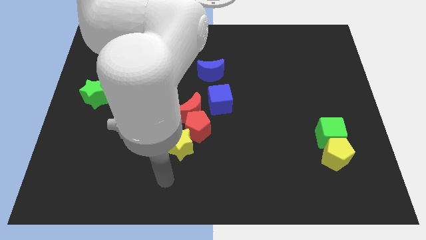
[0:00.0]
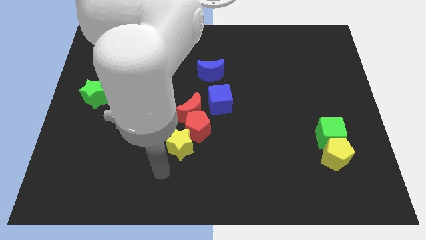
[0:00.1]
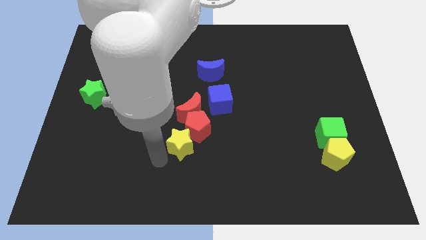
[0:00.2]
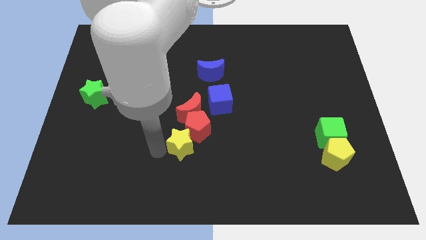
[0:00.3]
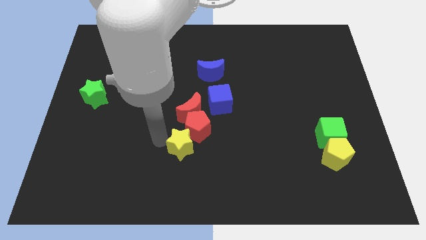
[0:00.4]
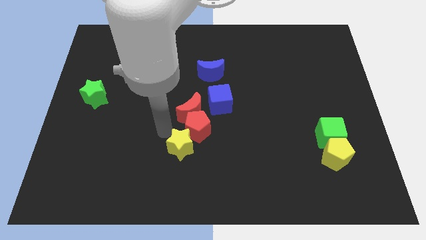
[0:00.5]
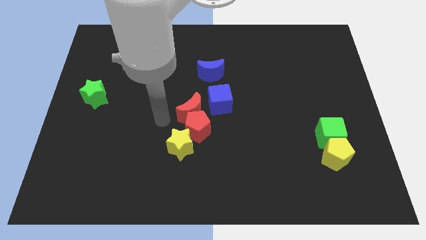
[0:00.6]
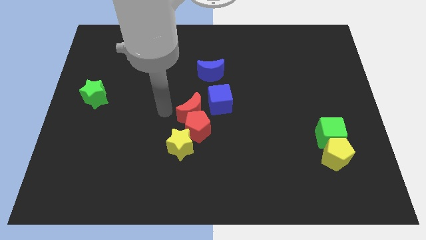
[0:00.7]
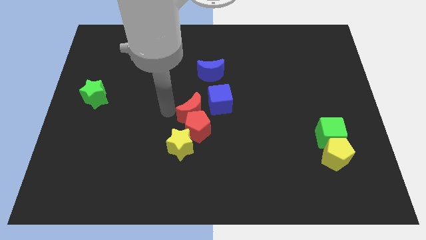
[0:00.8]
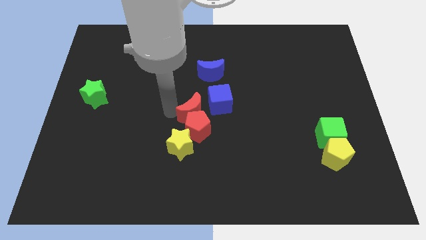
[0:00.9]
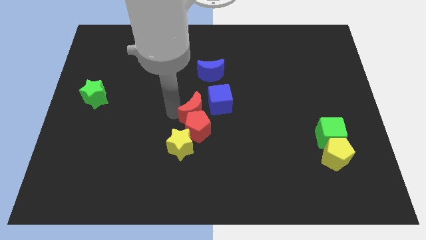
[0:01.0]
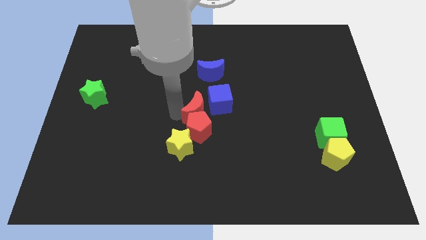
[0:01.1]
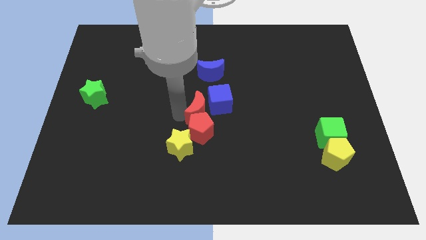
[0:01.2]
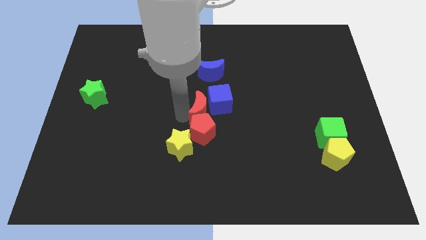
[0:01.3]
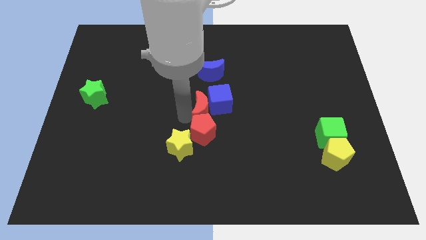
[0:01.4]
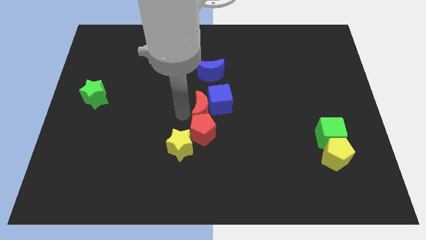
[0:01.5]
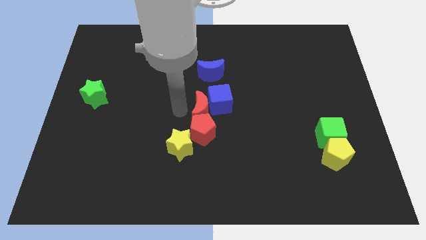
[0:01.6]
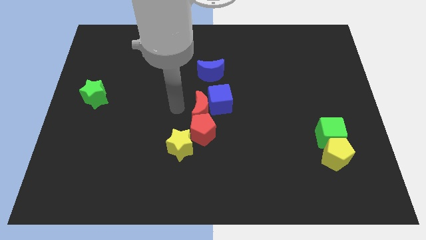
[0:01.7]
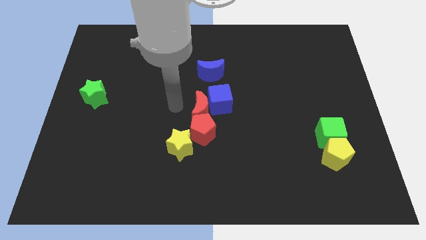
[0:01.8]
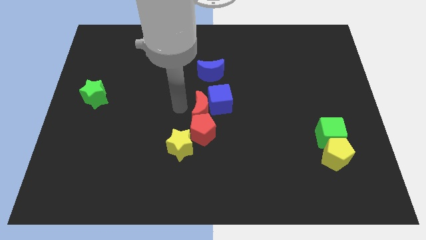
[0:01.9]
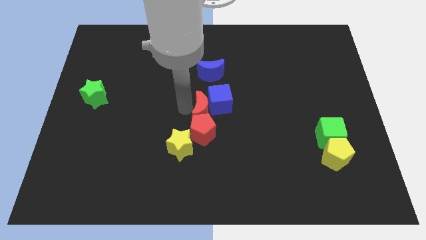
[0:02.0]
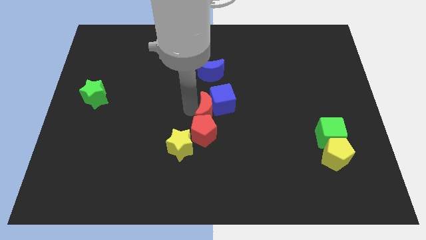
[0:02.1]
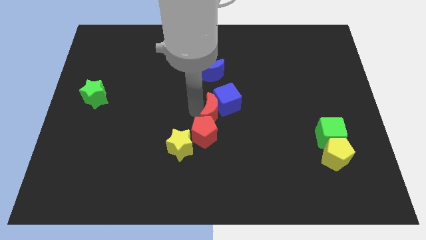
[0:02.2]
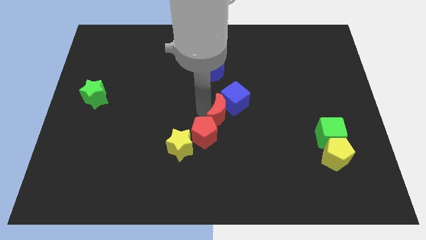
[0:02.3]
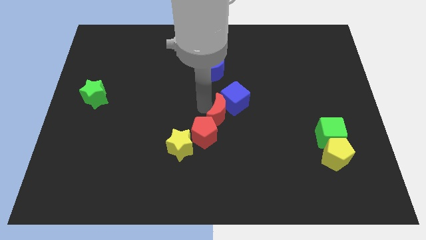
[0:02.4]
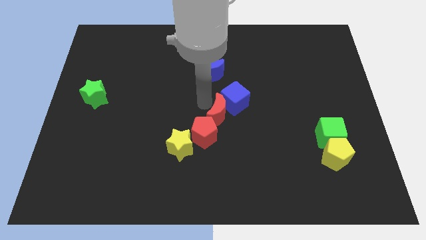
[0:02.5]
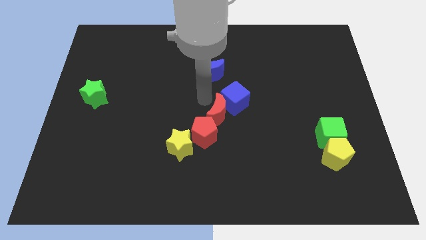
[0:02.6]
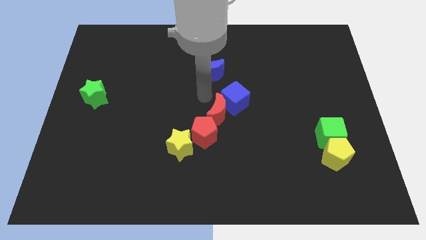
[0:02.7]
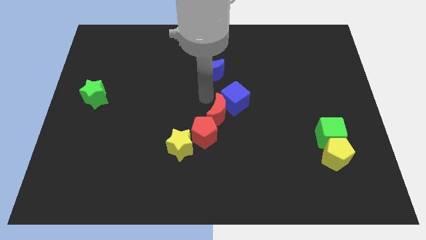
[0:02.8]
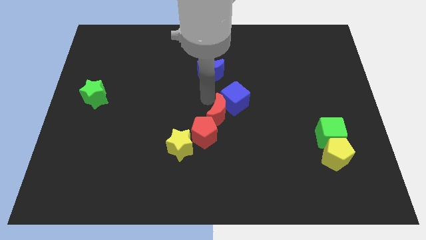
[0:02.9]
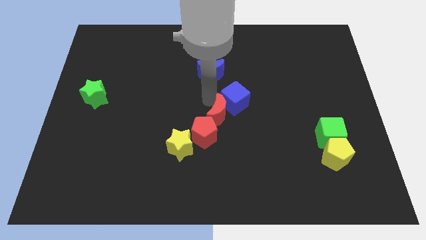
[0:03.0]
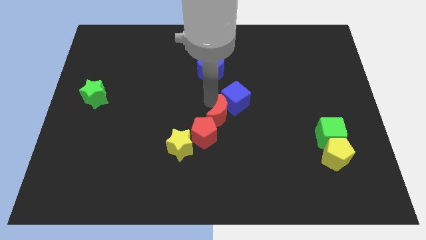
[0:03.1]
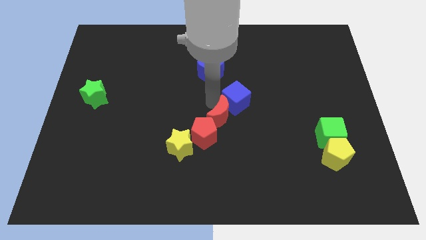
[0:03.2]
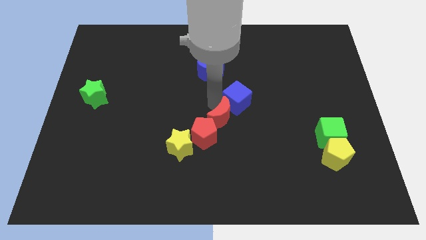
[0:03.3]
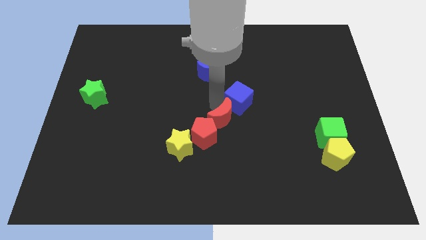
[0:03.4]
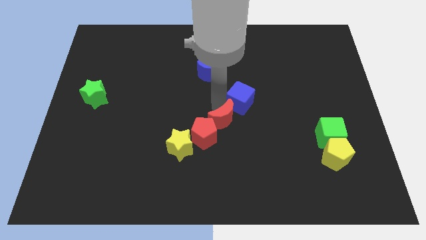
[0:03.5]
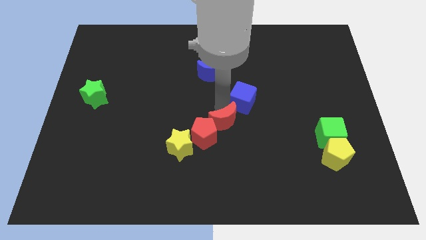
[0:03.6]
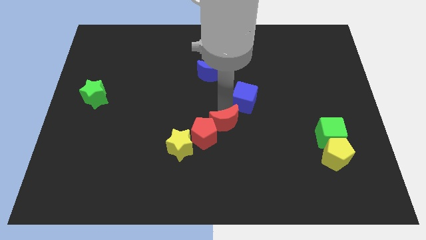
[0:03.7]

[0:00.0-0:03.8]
slide the red moon downwards and to the right diagonally somewhat

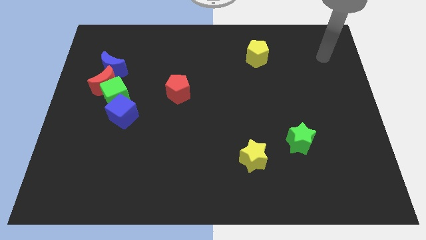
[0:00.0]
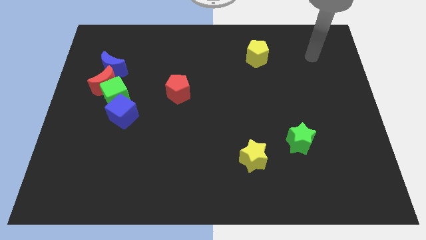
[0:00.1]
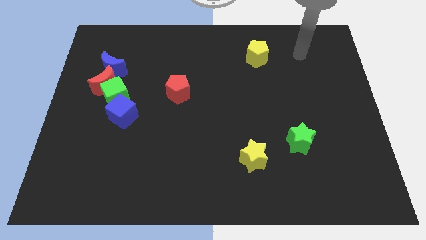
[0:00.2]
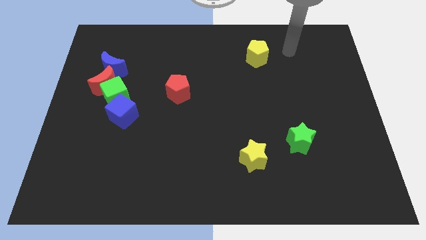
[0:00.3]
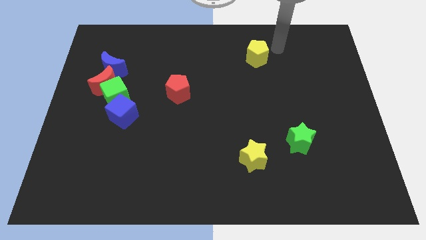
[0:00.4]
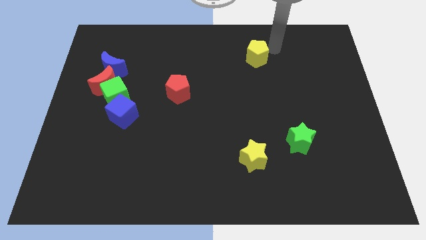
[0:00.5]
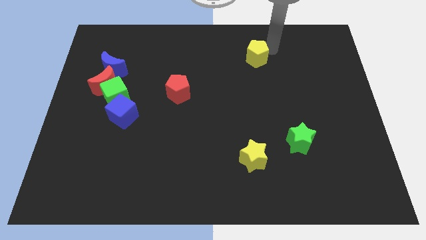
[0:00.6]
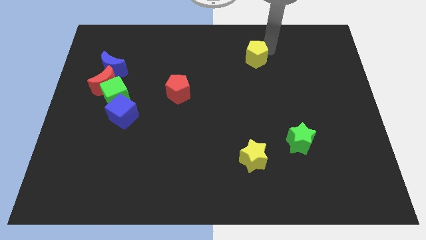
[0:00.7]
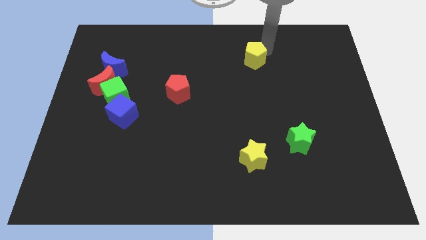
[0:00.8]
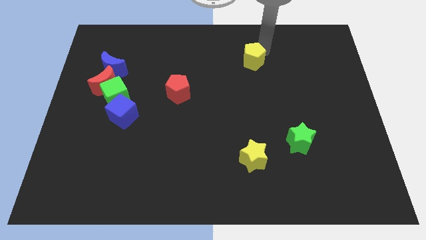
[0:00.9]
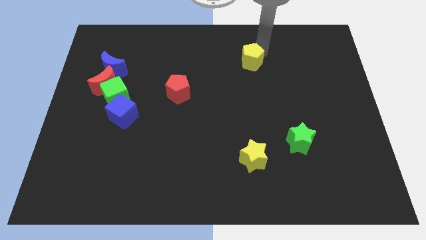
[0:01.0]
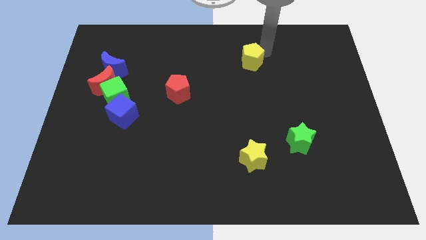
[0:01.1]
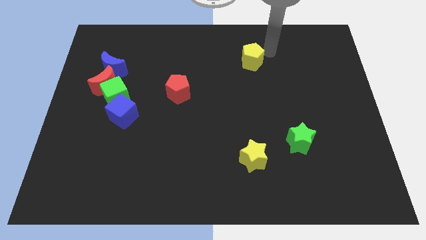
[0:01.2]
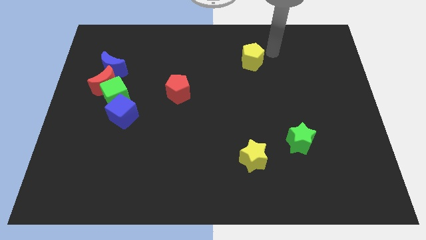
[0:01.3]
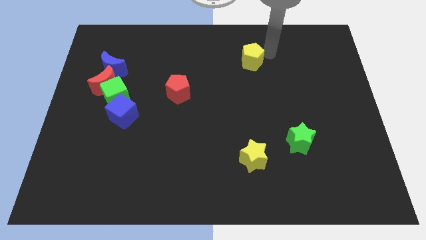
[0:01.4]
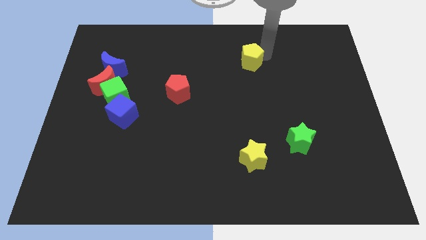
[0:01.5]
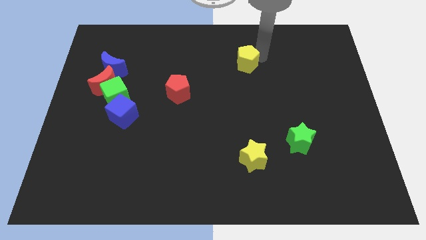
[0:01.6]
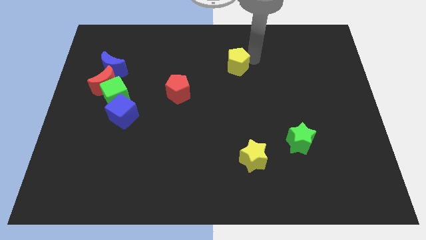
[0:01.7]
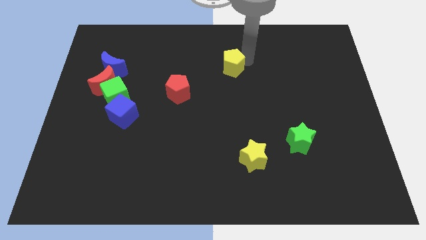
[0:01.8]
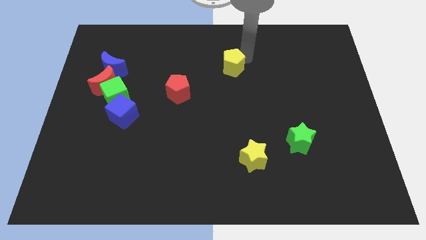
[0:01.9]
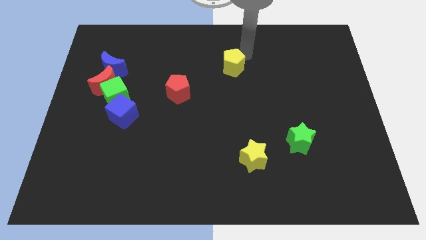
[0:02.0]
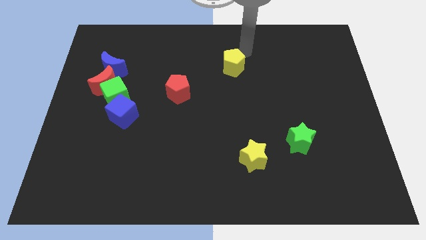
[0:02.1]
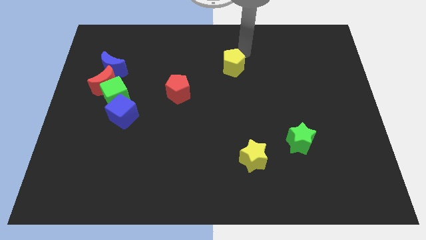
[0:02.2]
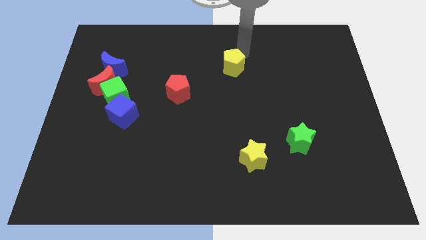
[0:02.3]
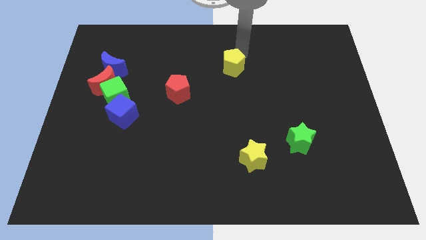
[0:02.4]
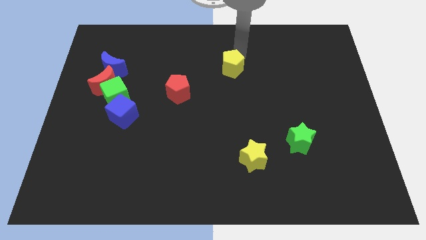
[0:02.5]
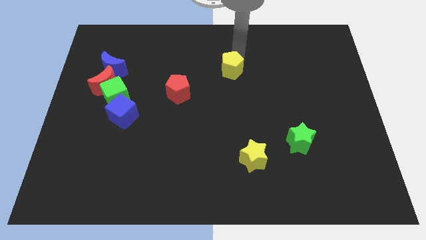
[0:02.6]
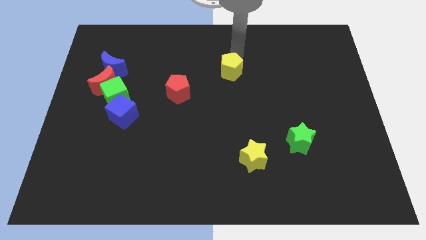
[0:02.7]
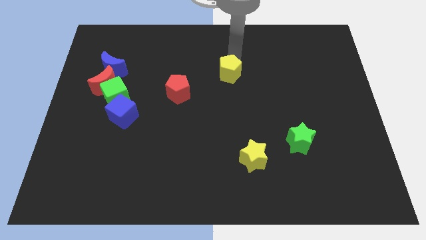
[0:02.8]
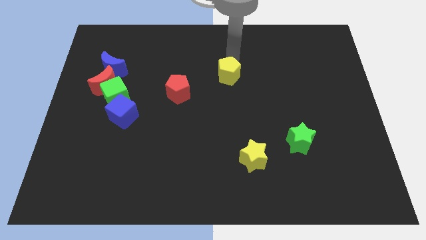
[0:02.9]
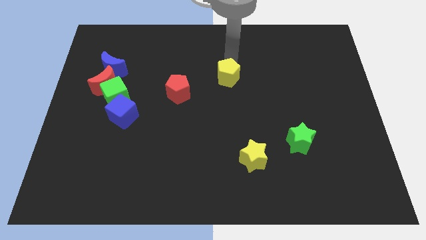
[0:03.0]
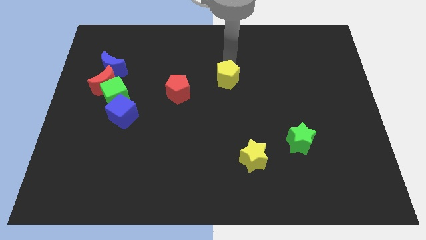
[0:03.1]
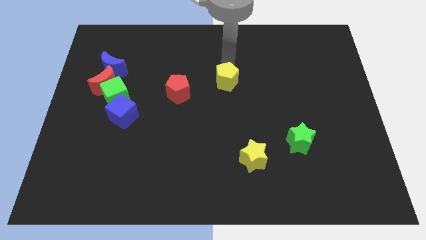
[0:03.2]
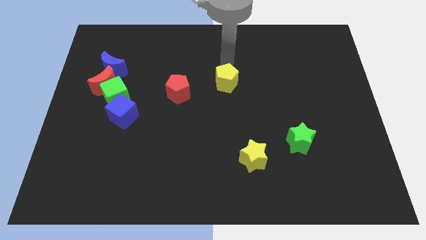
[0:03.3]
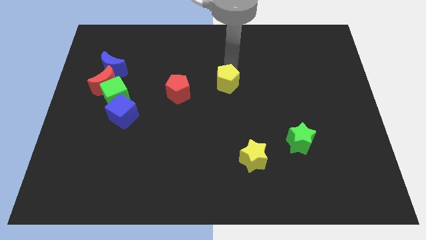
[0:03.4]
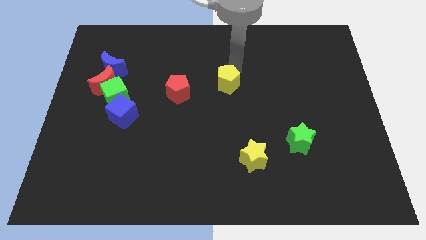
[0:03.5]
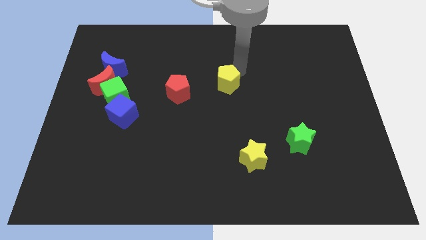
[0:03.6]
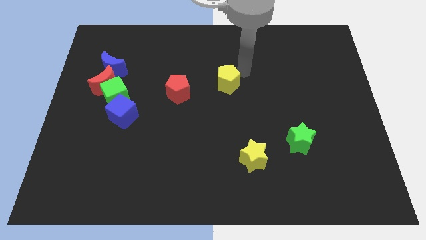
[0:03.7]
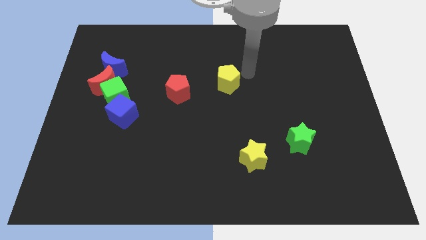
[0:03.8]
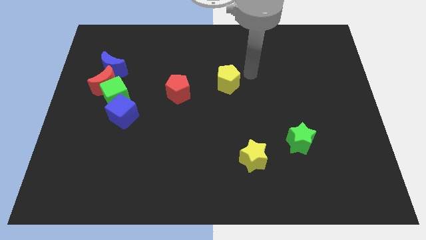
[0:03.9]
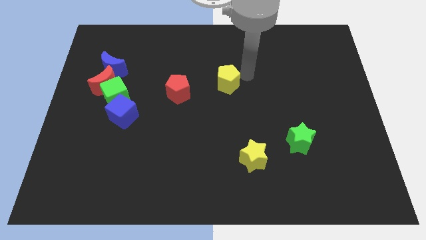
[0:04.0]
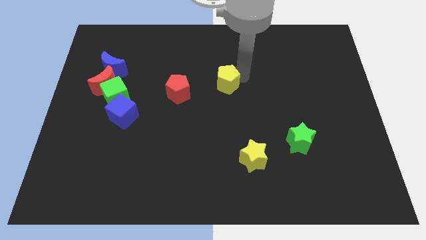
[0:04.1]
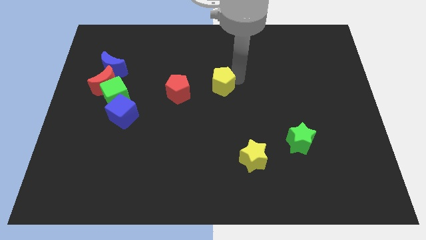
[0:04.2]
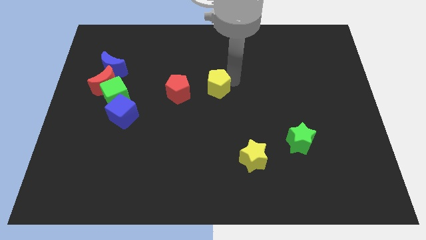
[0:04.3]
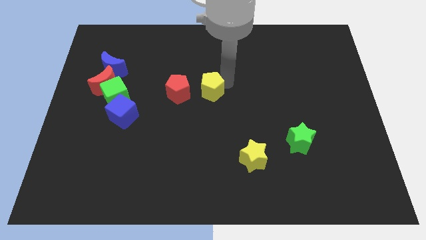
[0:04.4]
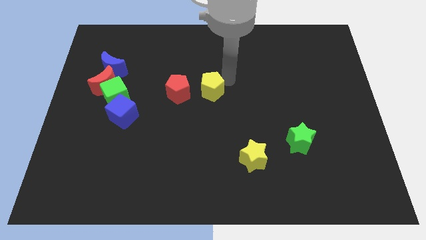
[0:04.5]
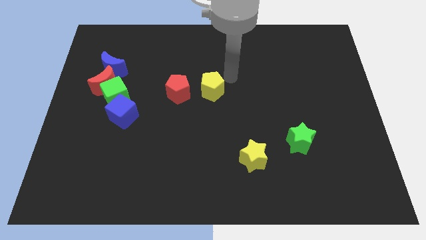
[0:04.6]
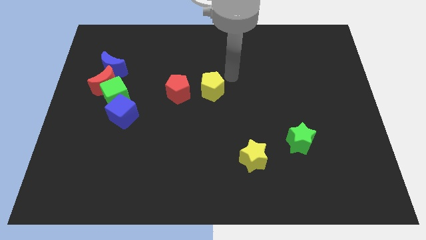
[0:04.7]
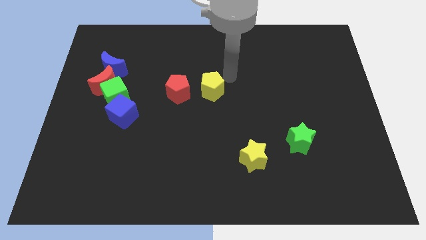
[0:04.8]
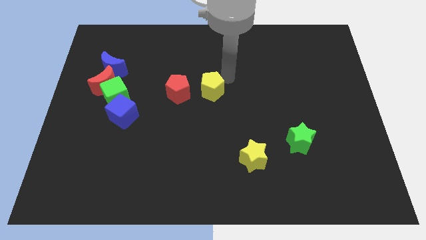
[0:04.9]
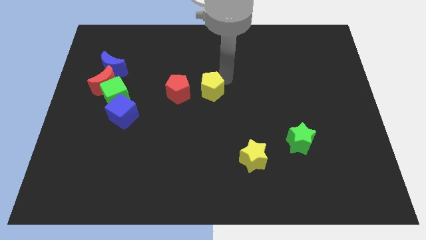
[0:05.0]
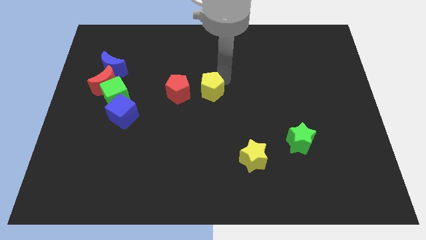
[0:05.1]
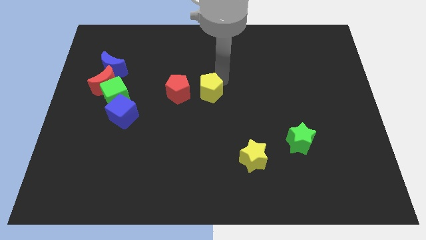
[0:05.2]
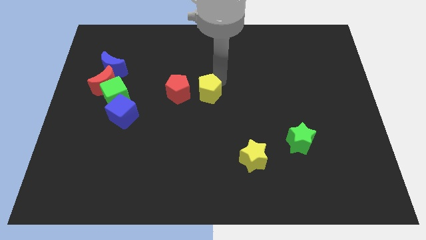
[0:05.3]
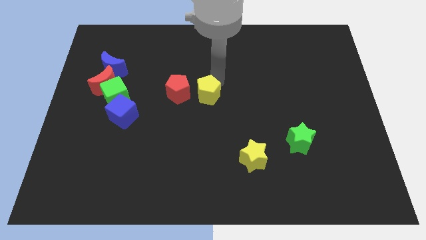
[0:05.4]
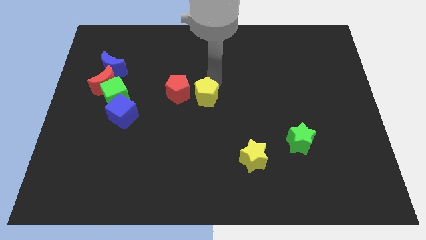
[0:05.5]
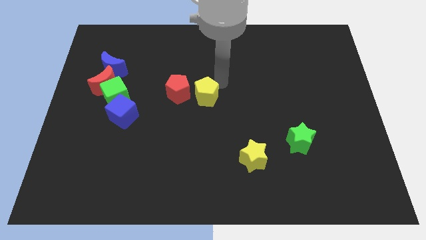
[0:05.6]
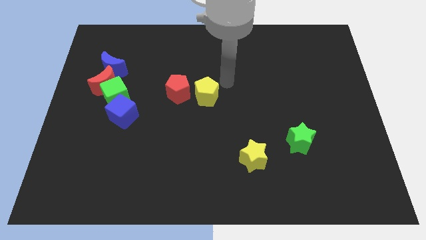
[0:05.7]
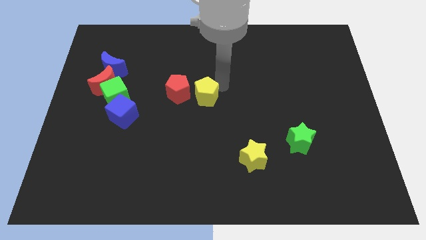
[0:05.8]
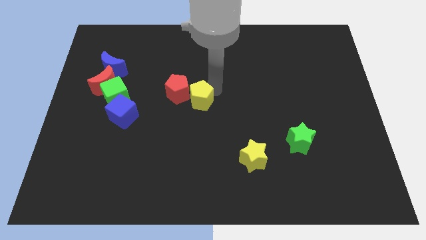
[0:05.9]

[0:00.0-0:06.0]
slide the yellow pentagon downwards and left
